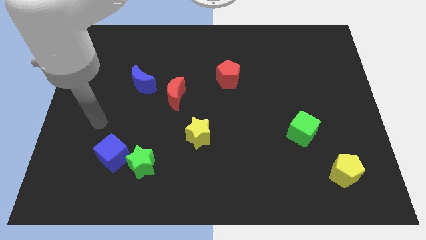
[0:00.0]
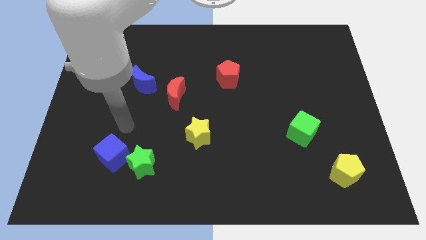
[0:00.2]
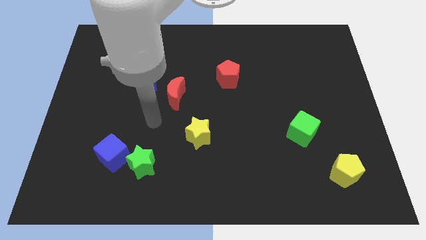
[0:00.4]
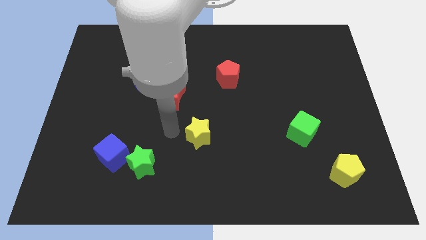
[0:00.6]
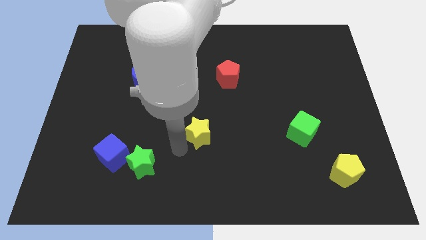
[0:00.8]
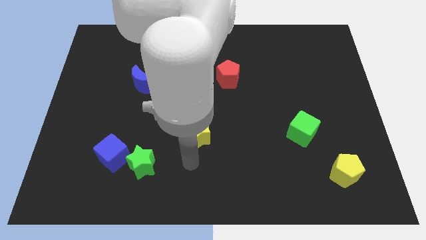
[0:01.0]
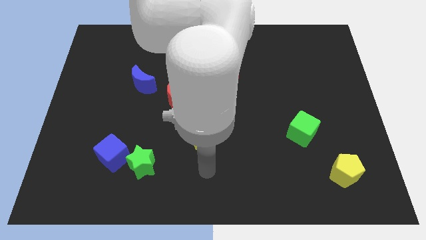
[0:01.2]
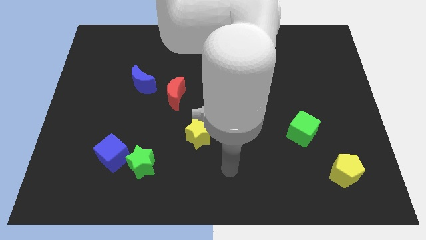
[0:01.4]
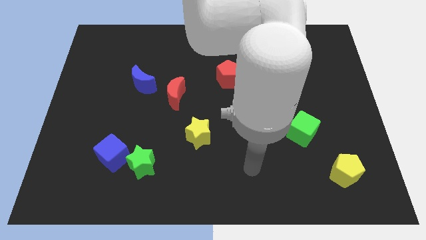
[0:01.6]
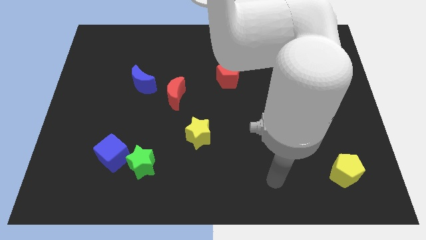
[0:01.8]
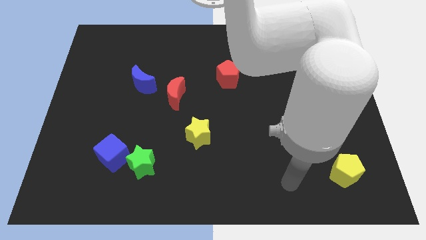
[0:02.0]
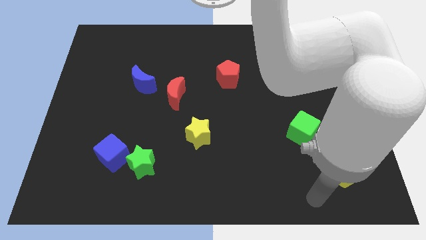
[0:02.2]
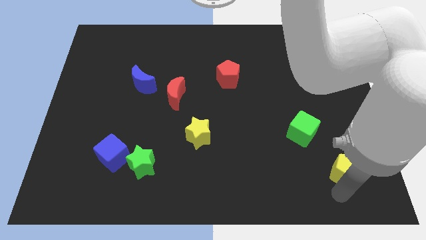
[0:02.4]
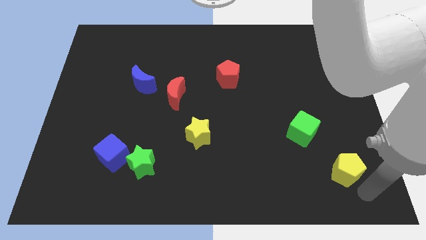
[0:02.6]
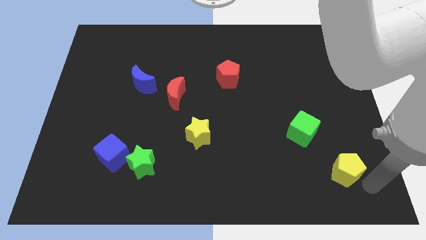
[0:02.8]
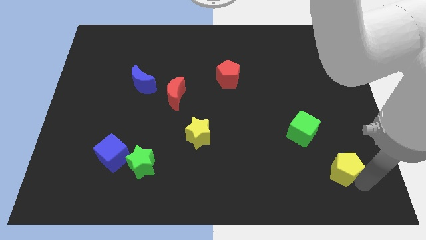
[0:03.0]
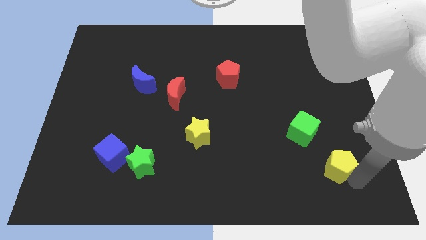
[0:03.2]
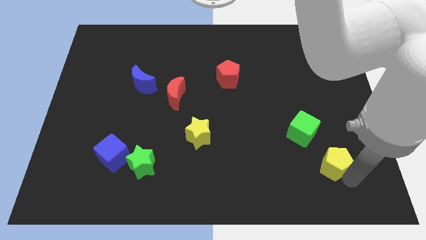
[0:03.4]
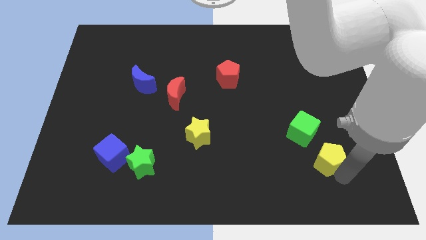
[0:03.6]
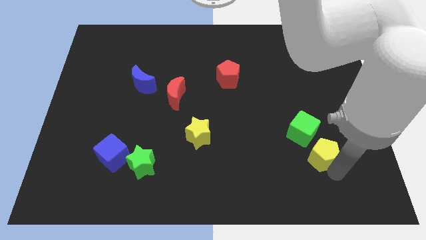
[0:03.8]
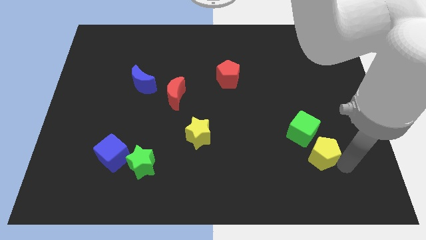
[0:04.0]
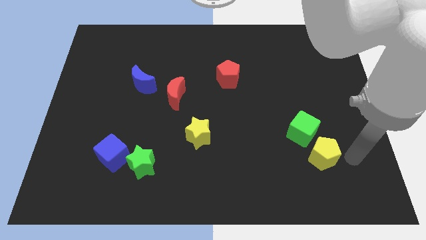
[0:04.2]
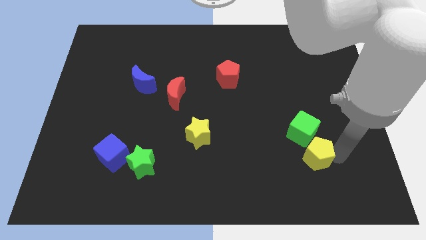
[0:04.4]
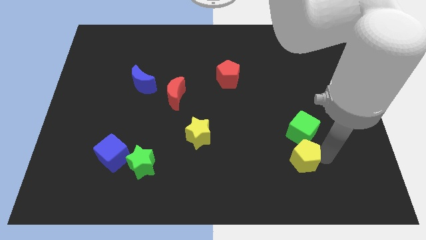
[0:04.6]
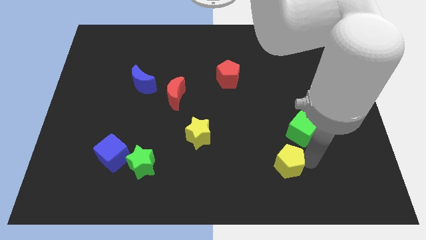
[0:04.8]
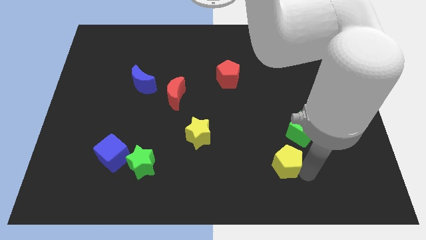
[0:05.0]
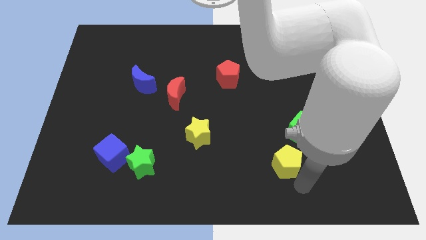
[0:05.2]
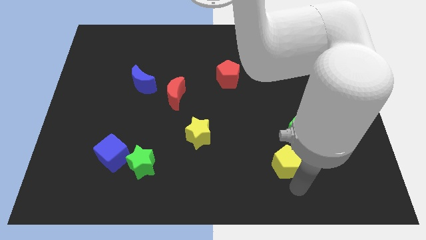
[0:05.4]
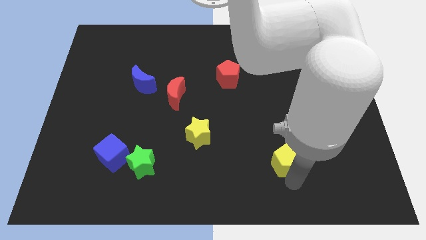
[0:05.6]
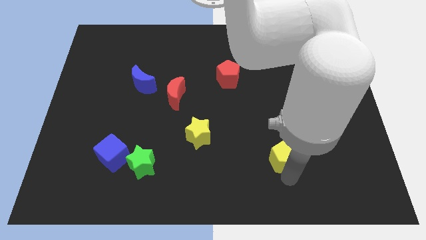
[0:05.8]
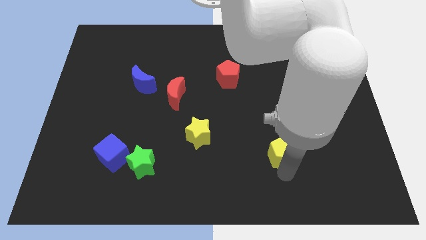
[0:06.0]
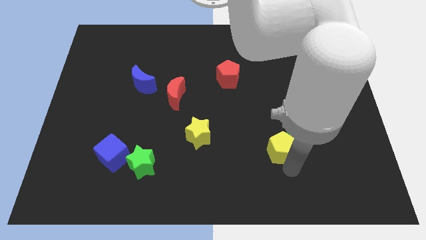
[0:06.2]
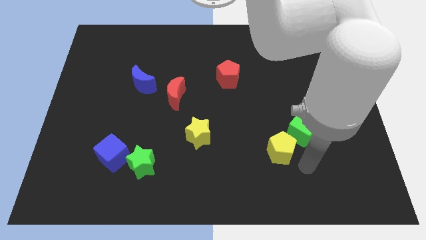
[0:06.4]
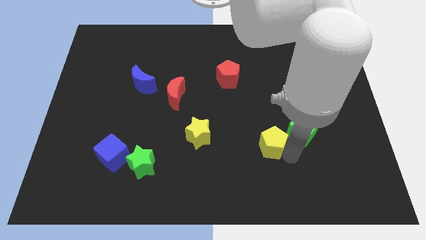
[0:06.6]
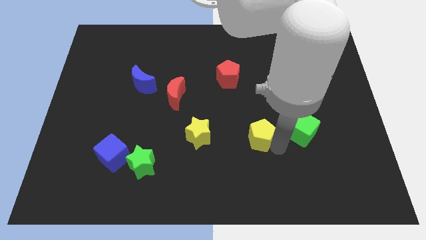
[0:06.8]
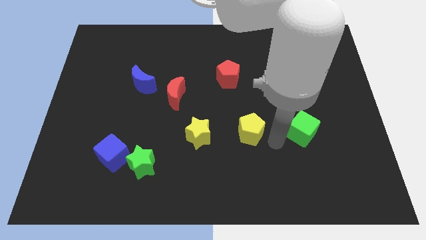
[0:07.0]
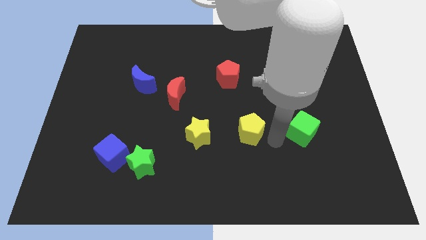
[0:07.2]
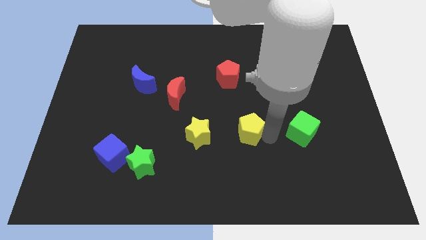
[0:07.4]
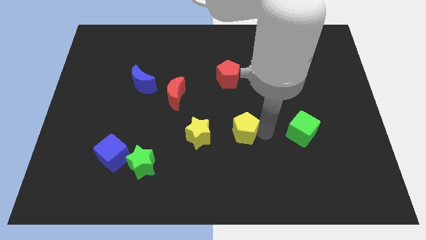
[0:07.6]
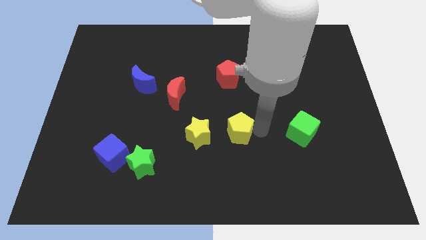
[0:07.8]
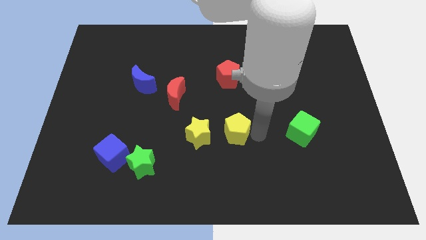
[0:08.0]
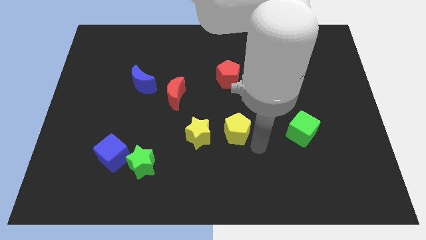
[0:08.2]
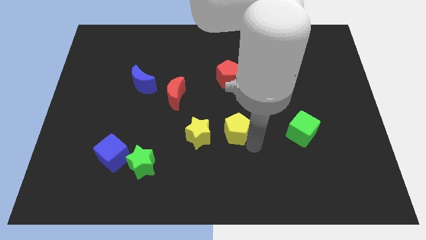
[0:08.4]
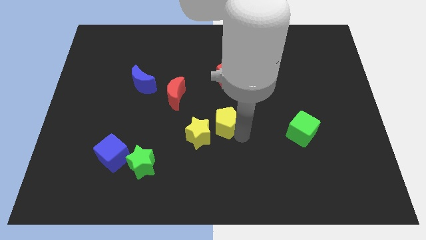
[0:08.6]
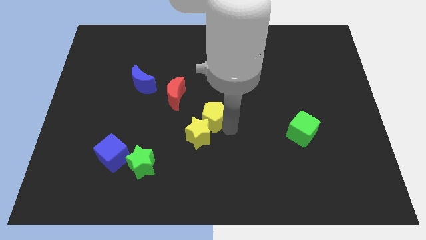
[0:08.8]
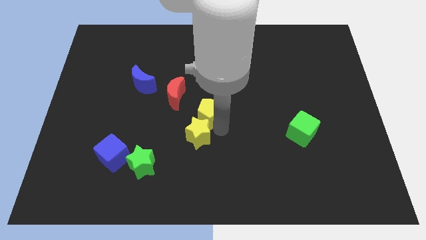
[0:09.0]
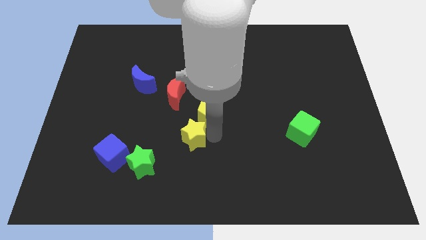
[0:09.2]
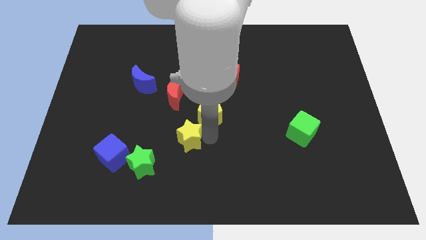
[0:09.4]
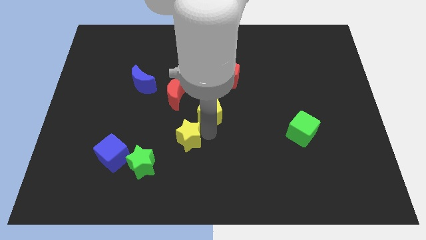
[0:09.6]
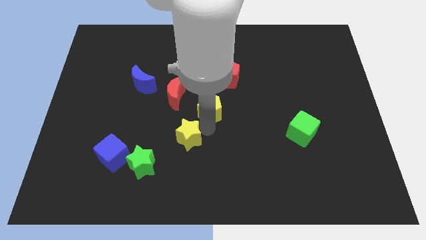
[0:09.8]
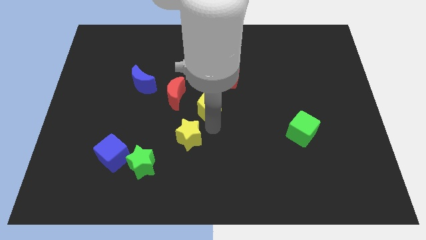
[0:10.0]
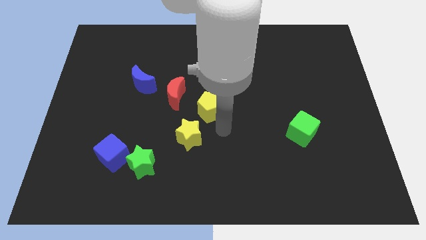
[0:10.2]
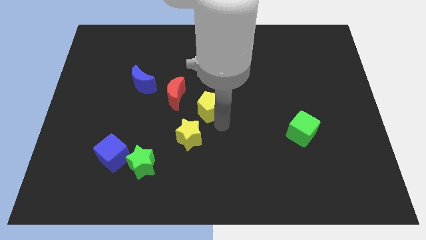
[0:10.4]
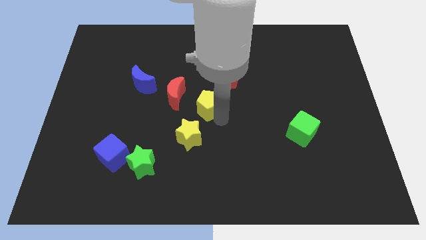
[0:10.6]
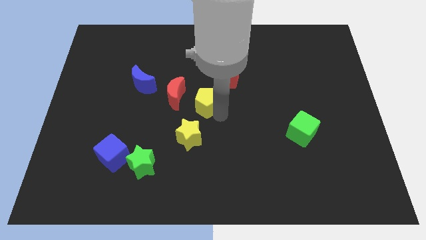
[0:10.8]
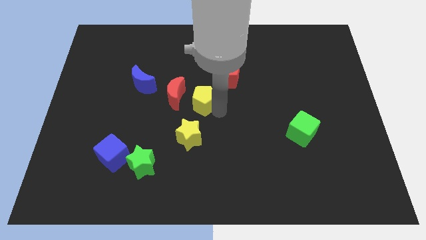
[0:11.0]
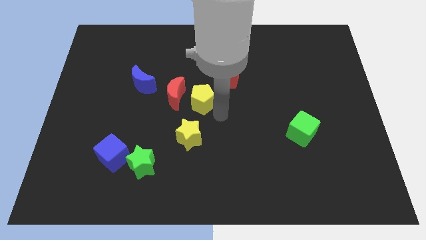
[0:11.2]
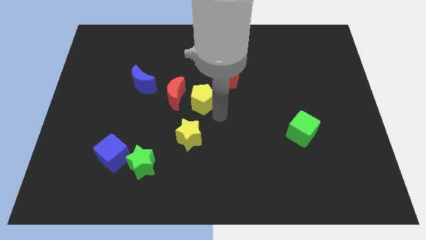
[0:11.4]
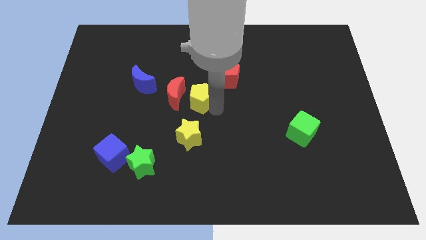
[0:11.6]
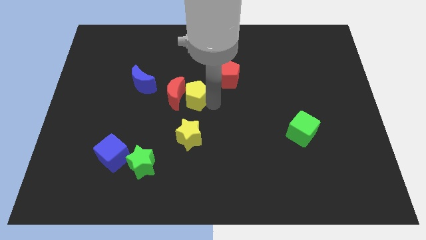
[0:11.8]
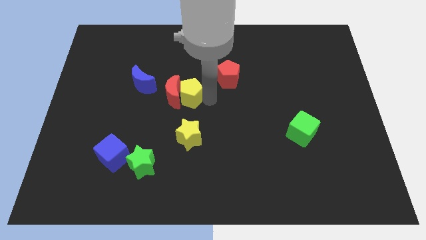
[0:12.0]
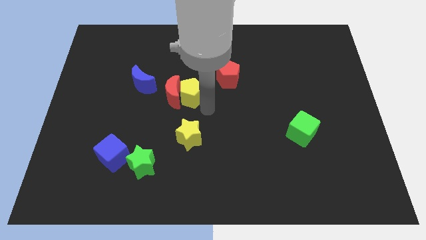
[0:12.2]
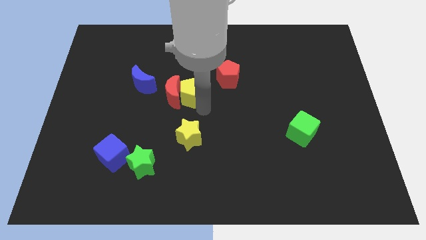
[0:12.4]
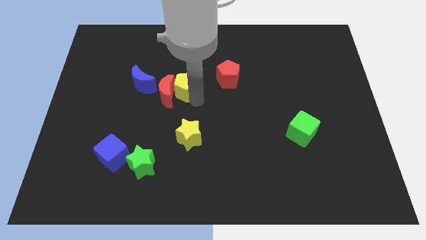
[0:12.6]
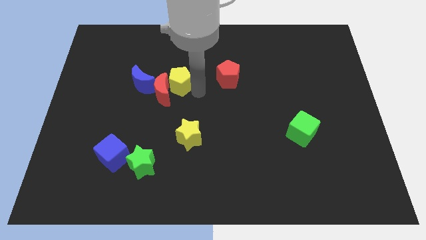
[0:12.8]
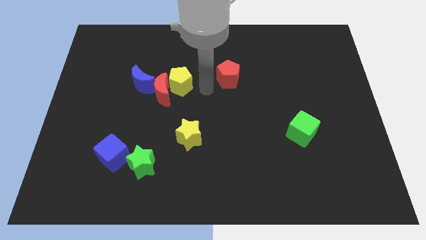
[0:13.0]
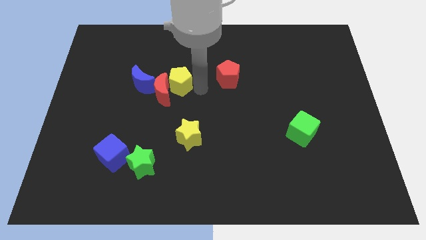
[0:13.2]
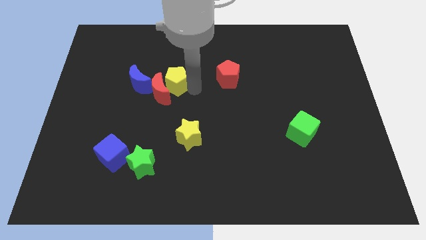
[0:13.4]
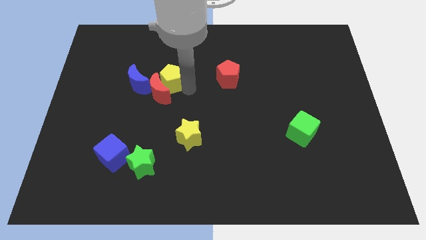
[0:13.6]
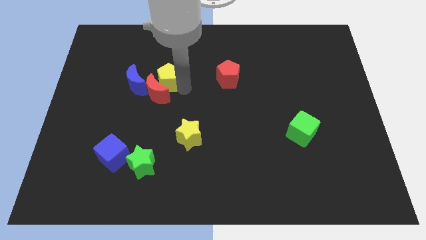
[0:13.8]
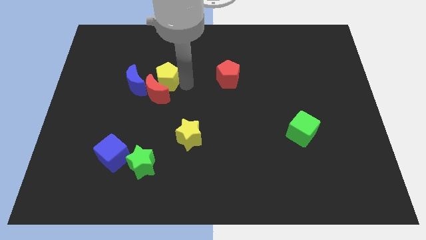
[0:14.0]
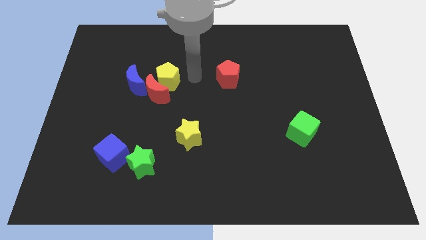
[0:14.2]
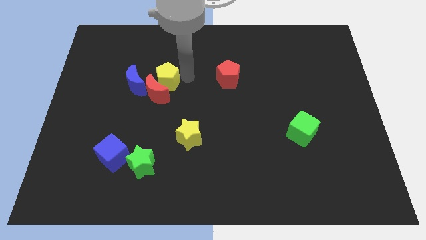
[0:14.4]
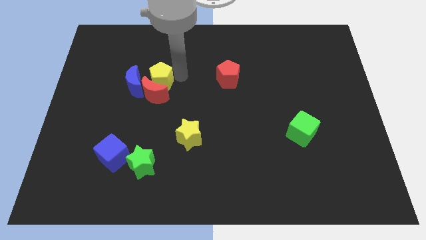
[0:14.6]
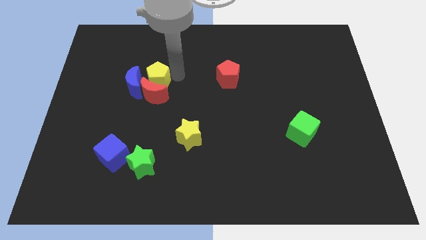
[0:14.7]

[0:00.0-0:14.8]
put the yellow pentagon to the blue moon
